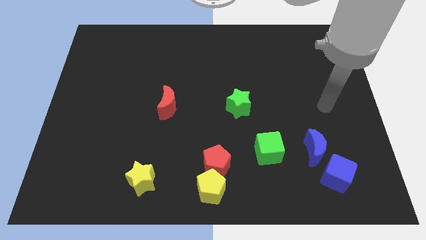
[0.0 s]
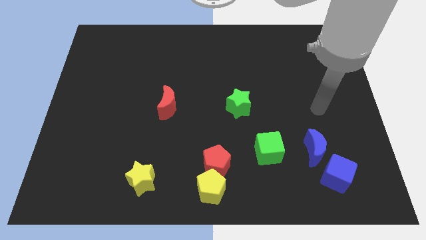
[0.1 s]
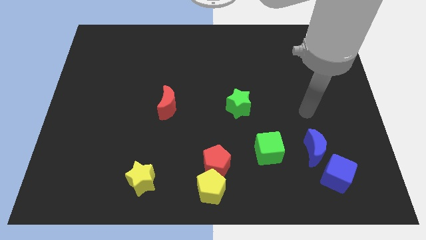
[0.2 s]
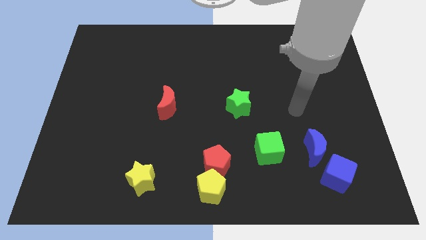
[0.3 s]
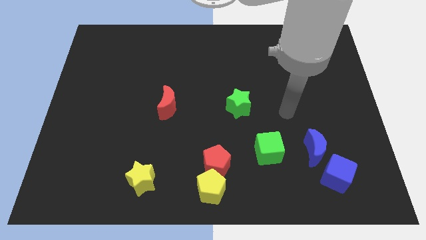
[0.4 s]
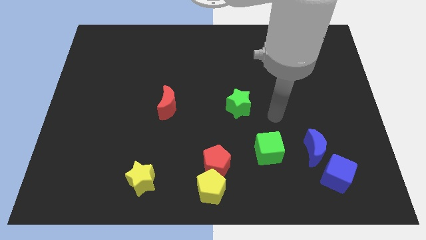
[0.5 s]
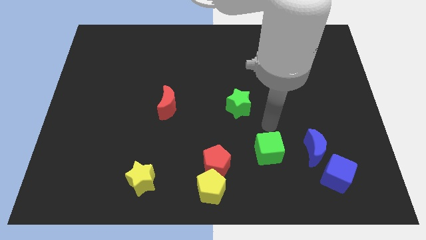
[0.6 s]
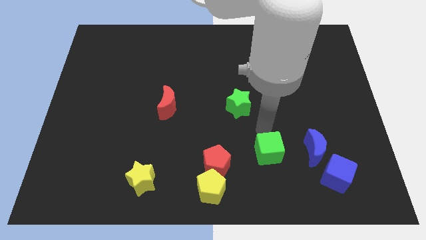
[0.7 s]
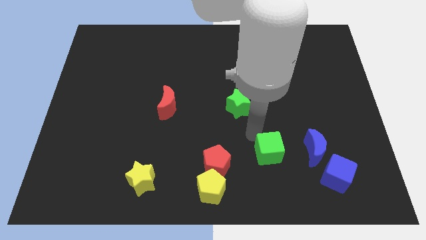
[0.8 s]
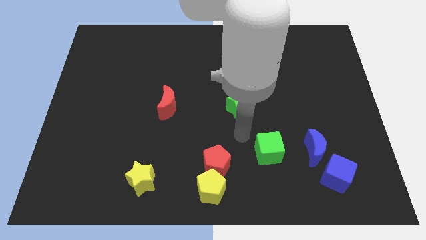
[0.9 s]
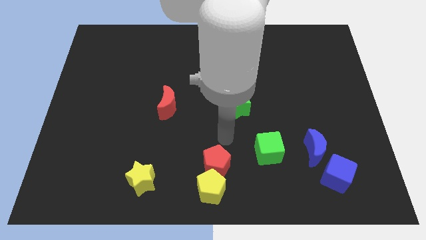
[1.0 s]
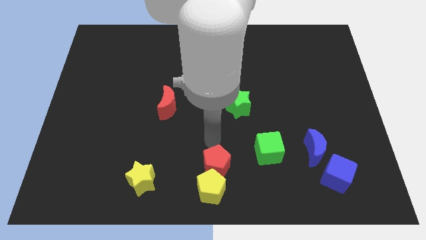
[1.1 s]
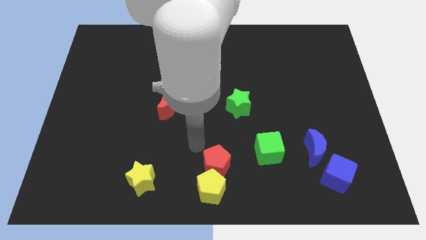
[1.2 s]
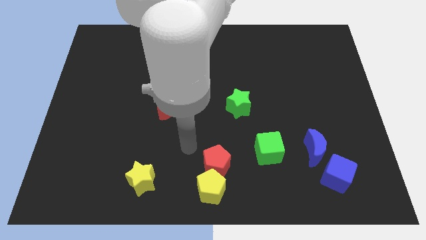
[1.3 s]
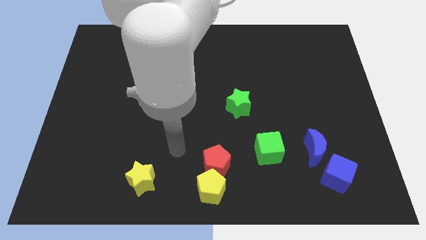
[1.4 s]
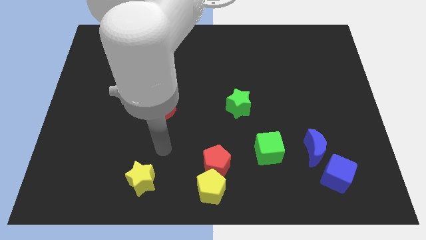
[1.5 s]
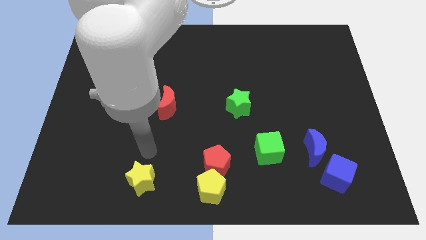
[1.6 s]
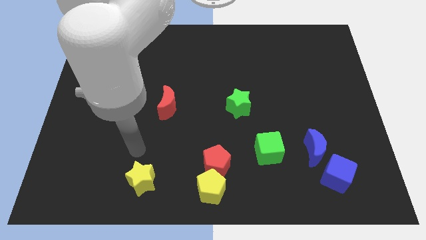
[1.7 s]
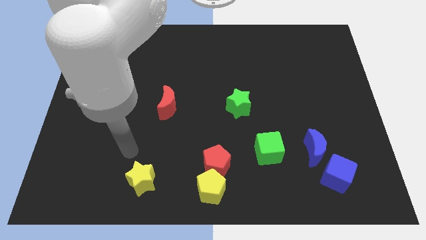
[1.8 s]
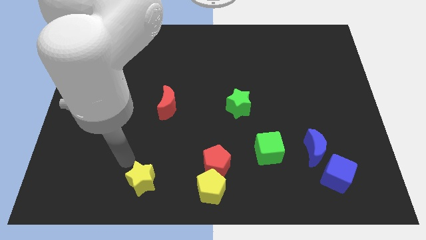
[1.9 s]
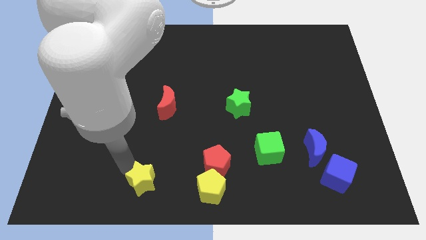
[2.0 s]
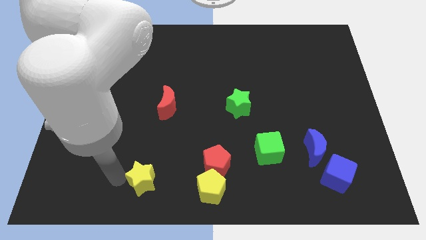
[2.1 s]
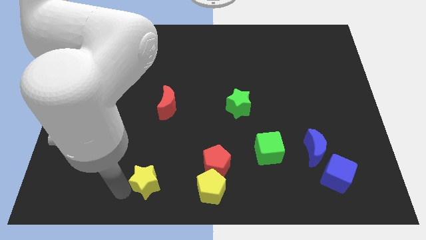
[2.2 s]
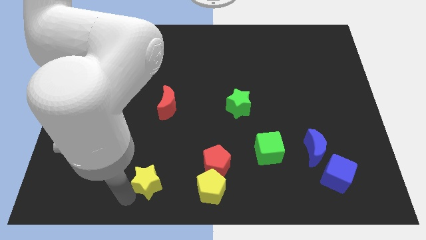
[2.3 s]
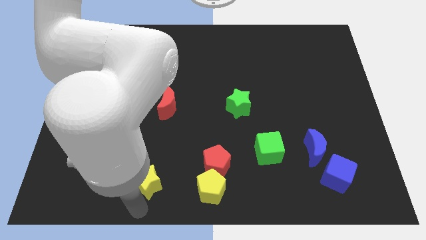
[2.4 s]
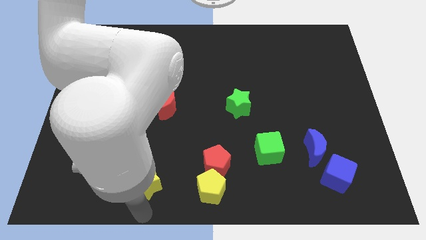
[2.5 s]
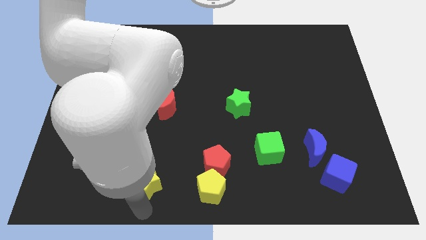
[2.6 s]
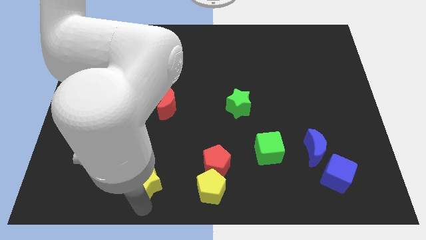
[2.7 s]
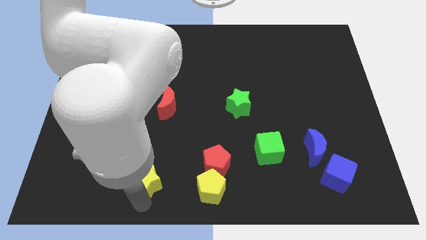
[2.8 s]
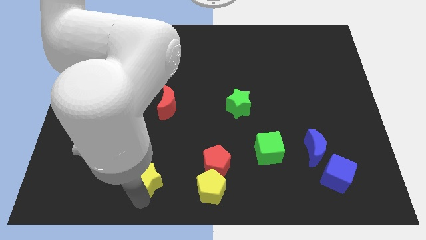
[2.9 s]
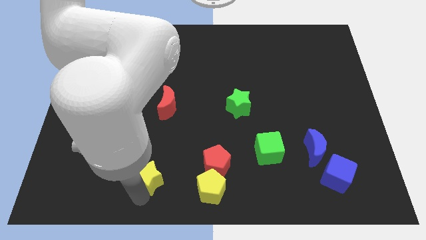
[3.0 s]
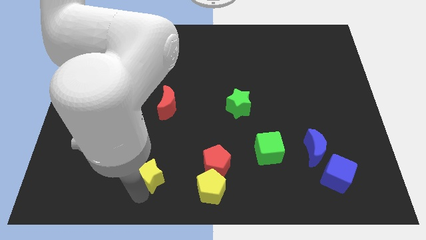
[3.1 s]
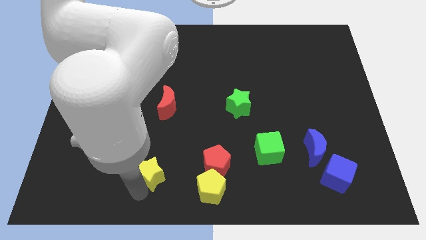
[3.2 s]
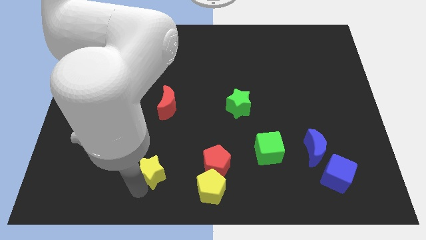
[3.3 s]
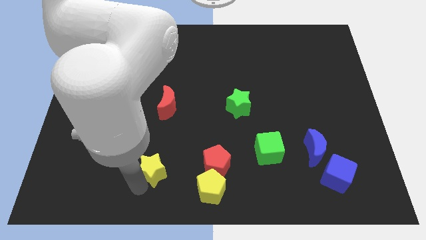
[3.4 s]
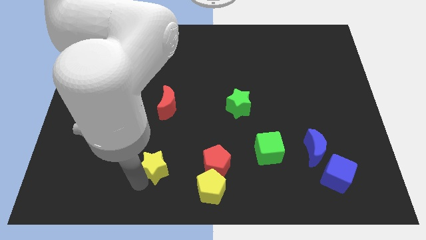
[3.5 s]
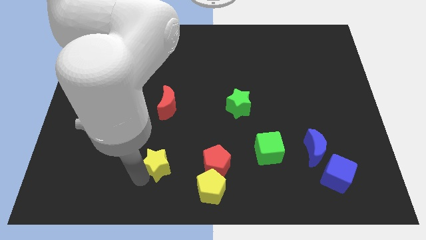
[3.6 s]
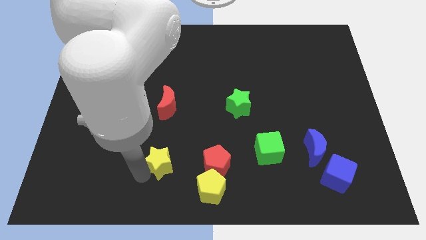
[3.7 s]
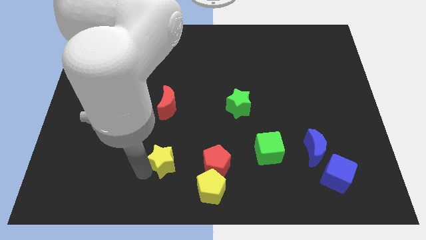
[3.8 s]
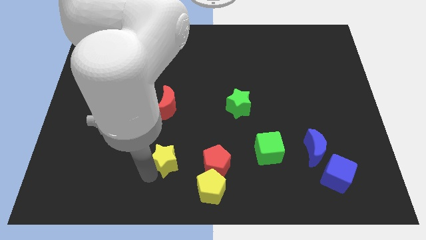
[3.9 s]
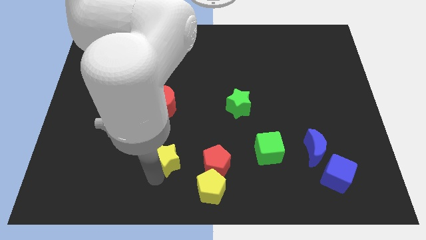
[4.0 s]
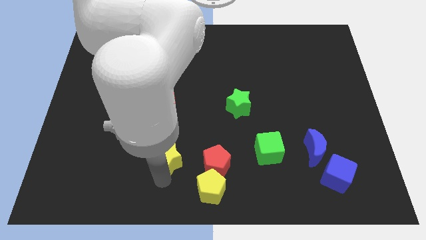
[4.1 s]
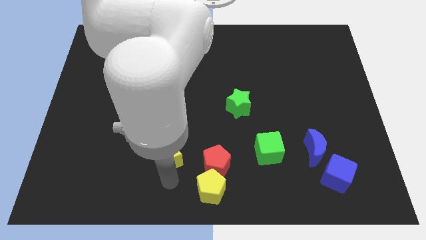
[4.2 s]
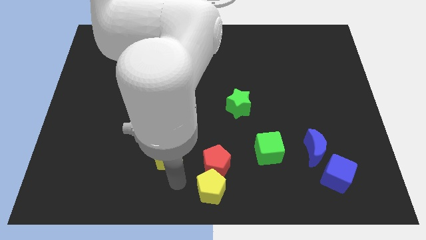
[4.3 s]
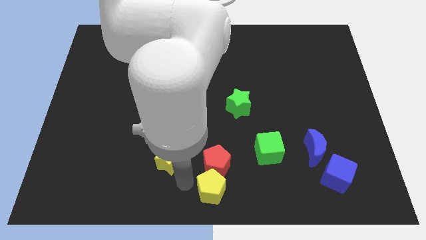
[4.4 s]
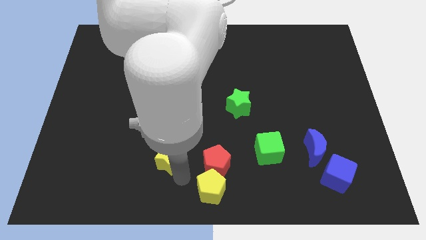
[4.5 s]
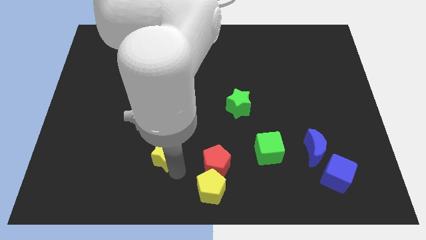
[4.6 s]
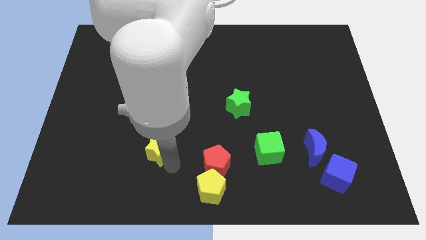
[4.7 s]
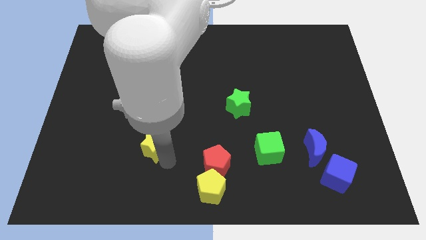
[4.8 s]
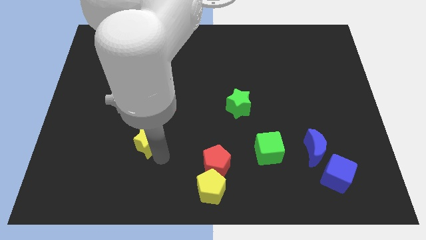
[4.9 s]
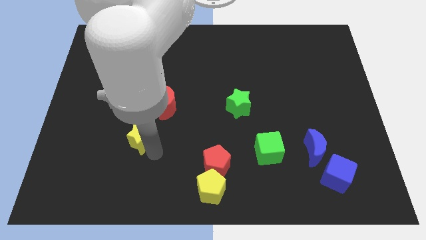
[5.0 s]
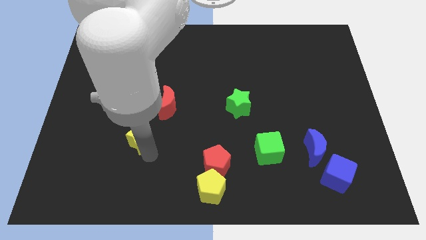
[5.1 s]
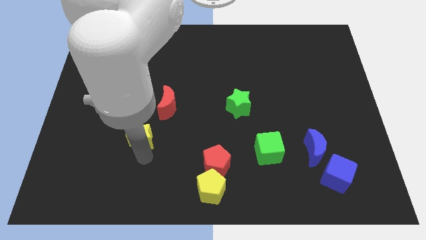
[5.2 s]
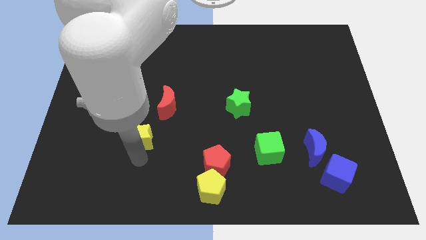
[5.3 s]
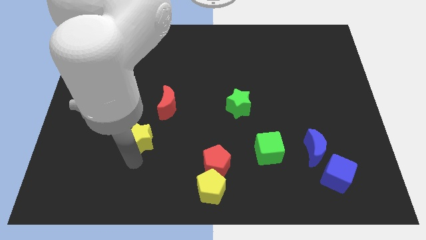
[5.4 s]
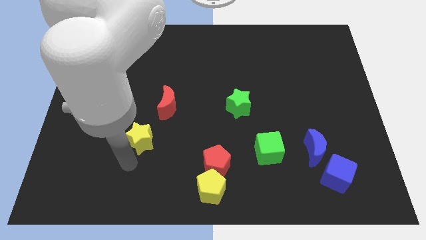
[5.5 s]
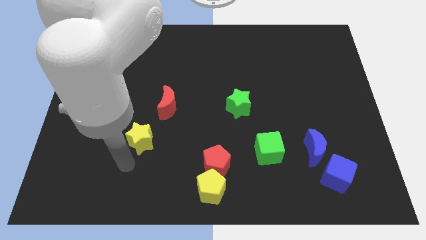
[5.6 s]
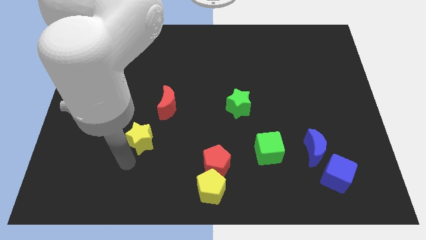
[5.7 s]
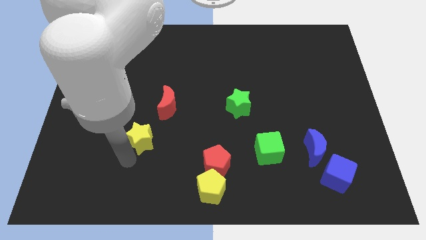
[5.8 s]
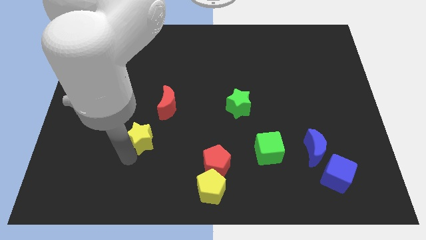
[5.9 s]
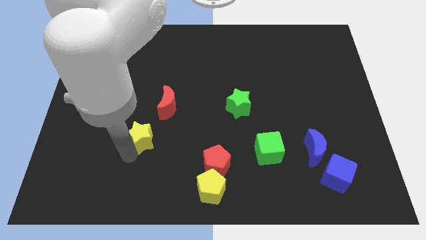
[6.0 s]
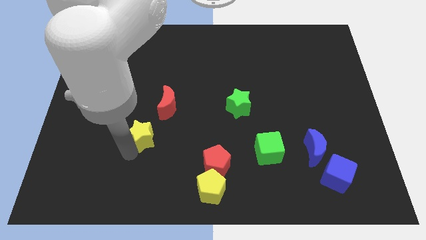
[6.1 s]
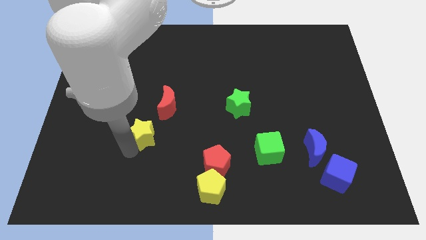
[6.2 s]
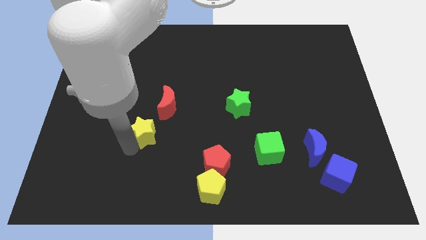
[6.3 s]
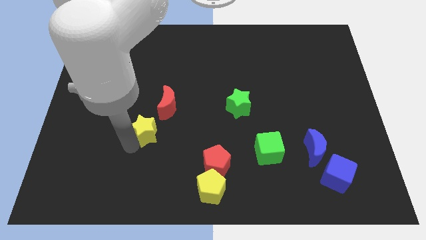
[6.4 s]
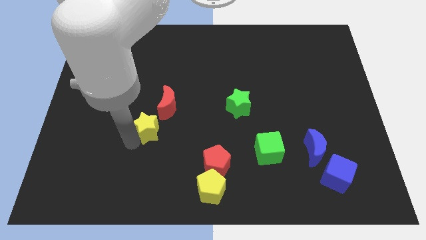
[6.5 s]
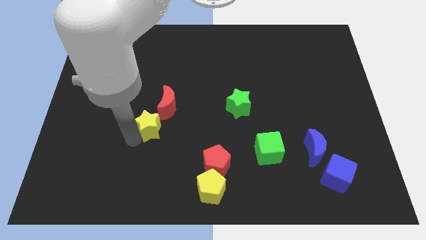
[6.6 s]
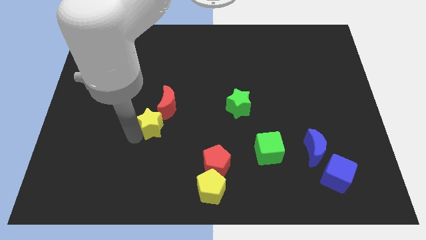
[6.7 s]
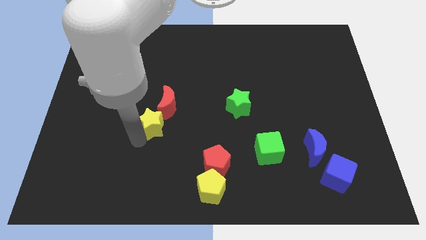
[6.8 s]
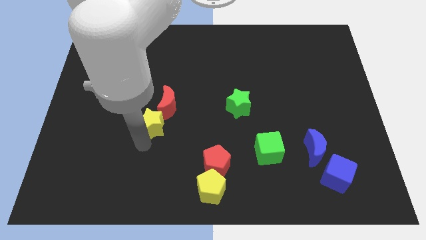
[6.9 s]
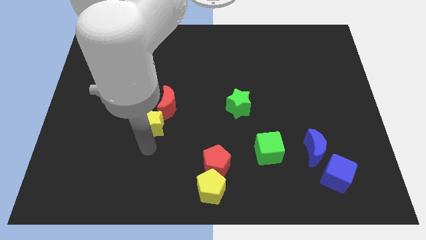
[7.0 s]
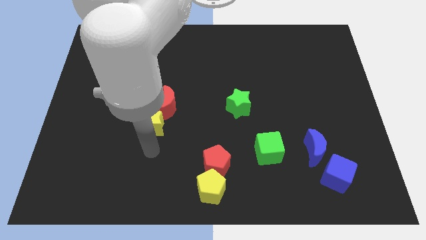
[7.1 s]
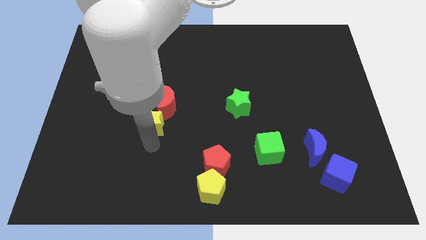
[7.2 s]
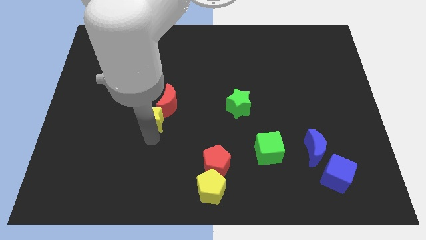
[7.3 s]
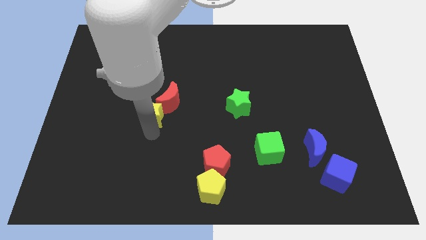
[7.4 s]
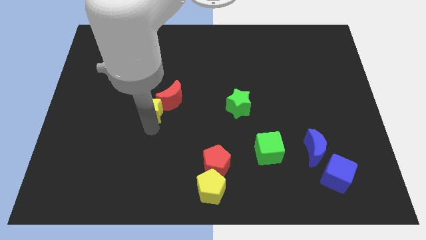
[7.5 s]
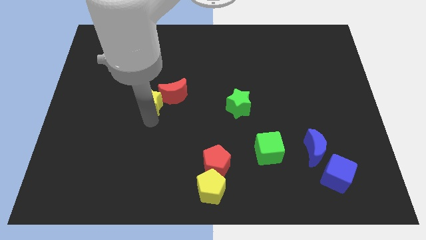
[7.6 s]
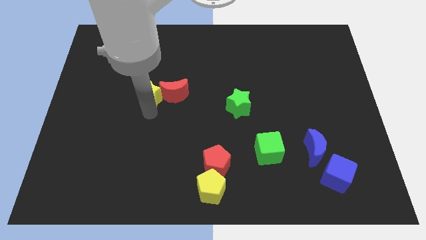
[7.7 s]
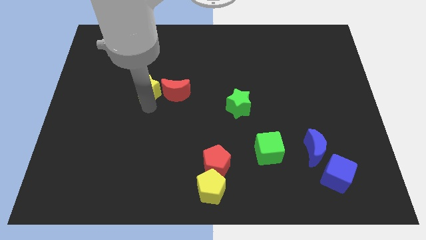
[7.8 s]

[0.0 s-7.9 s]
slide the yellow star diagonally up and to the left of the red moon

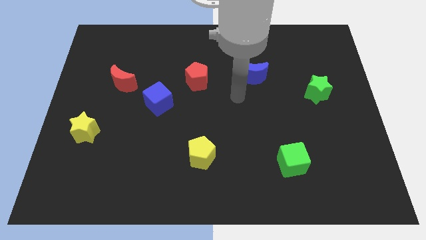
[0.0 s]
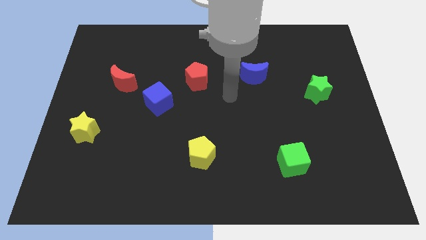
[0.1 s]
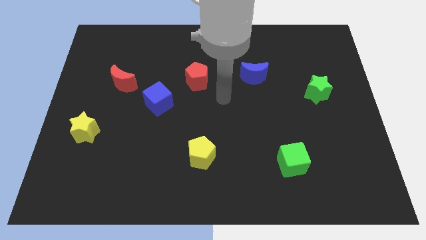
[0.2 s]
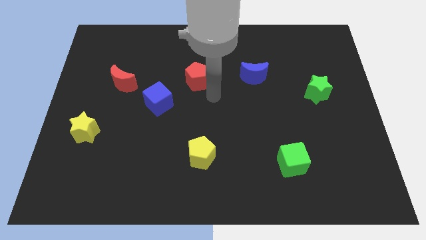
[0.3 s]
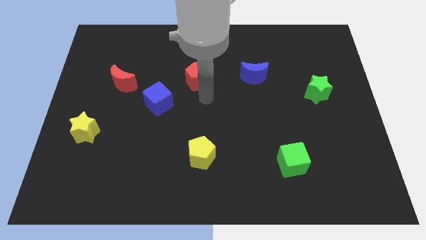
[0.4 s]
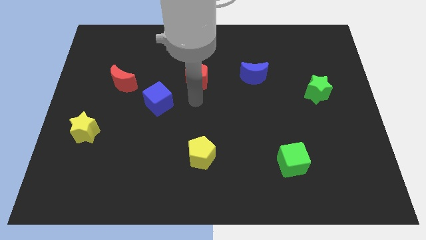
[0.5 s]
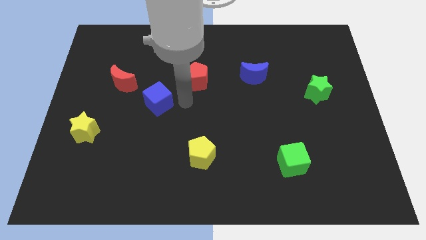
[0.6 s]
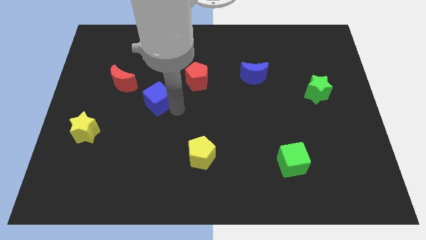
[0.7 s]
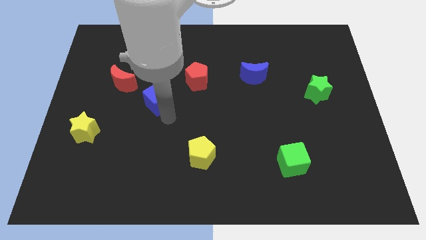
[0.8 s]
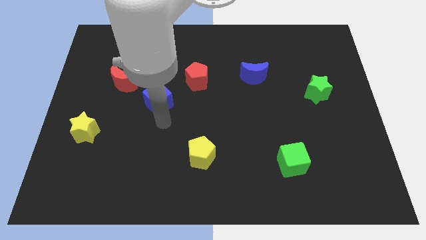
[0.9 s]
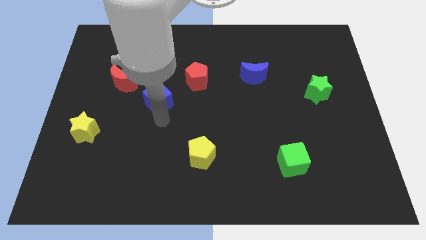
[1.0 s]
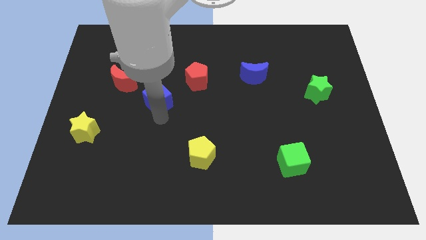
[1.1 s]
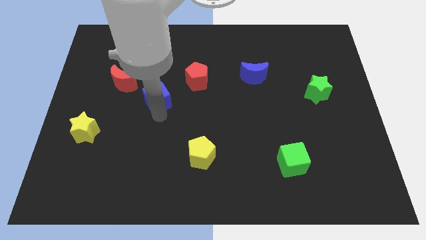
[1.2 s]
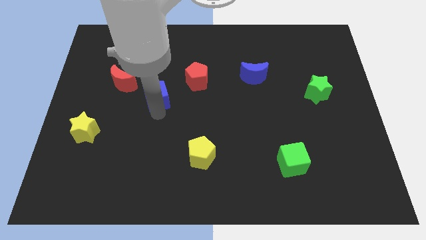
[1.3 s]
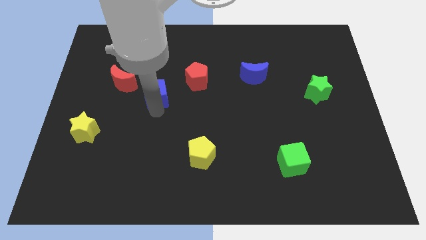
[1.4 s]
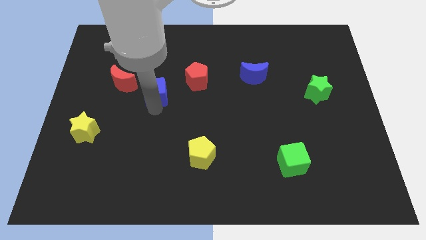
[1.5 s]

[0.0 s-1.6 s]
push the blue cube left of the red pentagon
